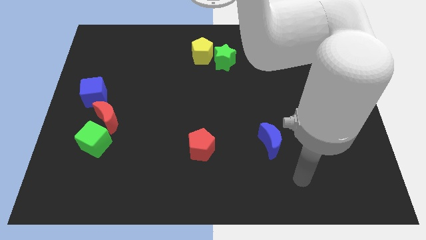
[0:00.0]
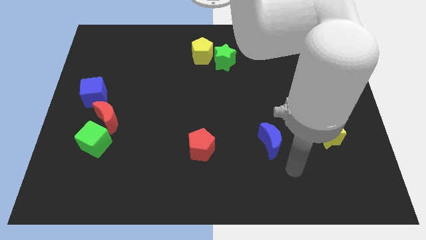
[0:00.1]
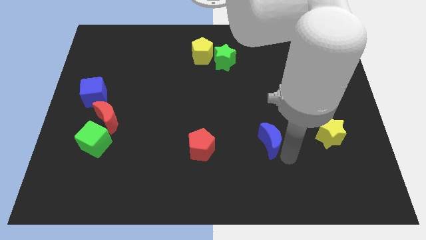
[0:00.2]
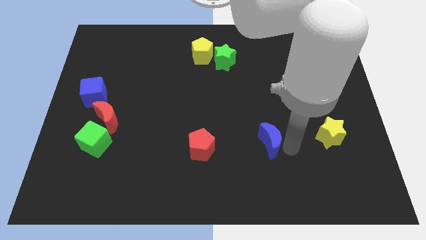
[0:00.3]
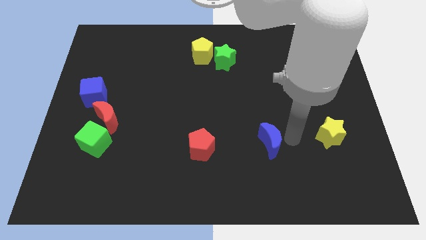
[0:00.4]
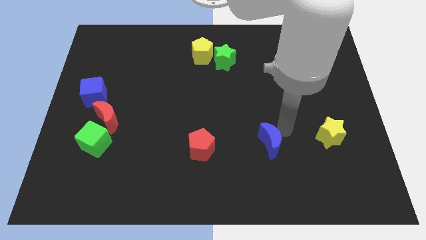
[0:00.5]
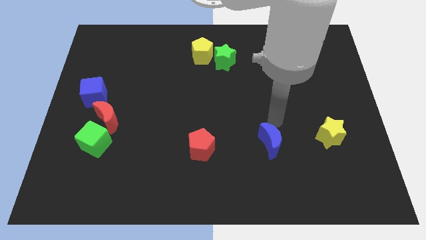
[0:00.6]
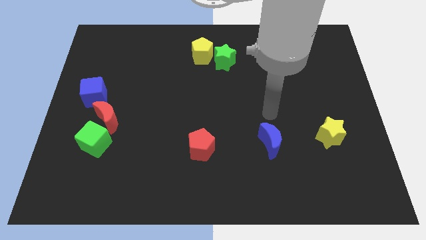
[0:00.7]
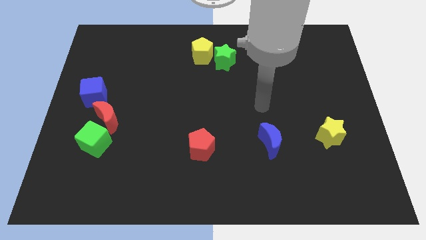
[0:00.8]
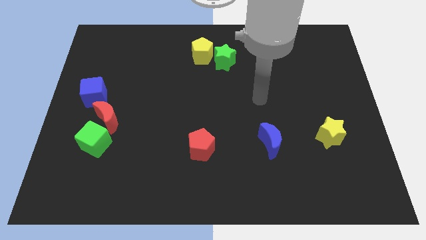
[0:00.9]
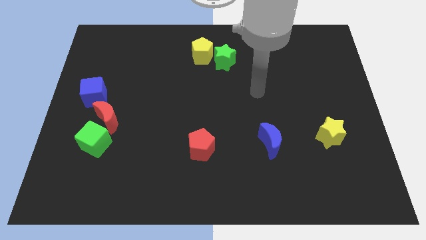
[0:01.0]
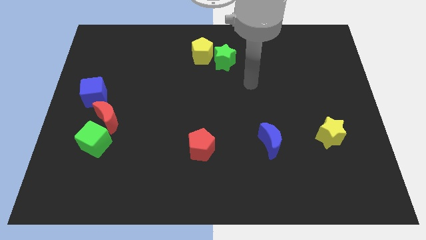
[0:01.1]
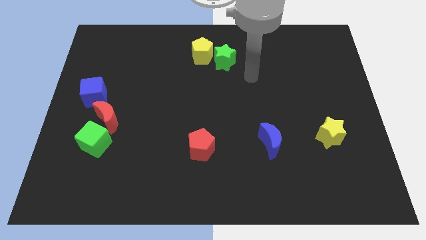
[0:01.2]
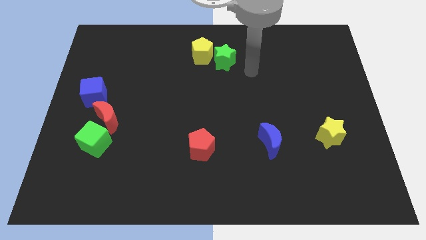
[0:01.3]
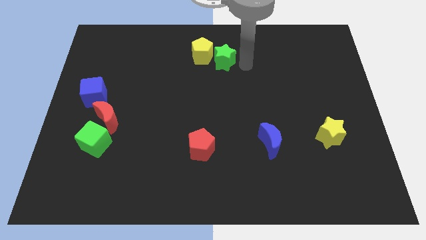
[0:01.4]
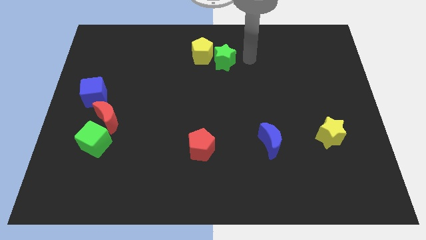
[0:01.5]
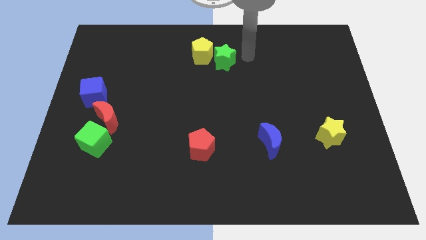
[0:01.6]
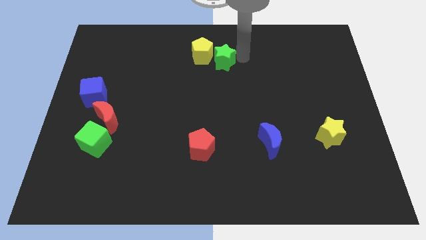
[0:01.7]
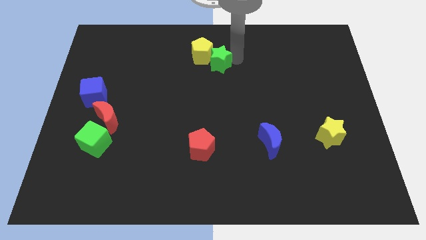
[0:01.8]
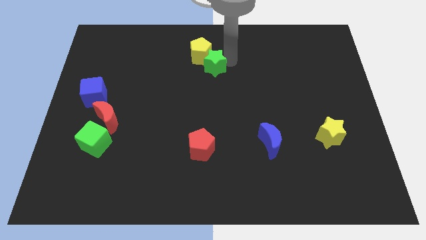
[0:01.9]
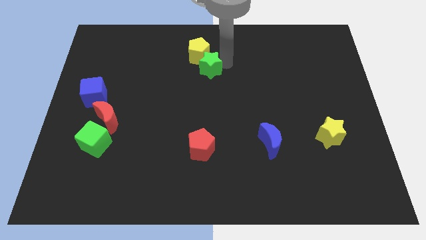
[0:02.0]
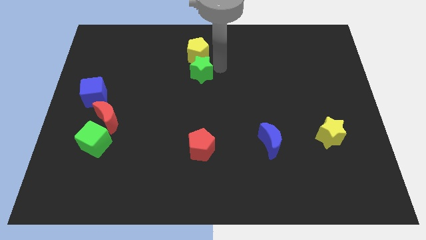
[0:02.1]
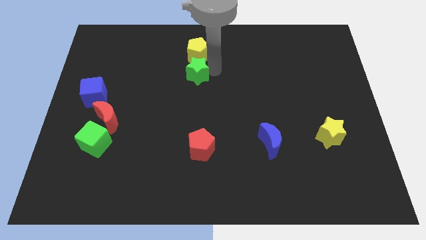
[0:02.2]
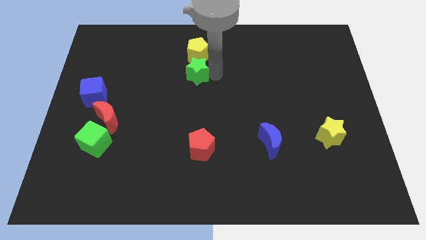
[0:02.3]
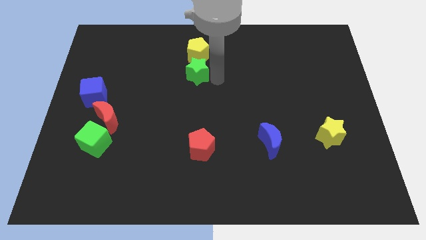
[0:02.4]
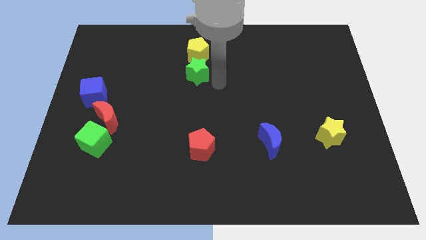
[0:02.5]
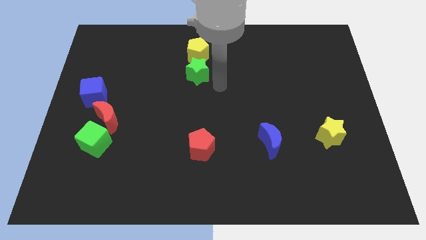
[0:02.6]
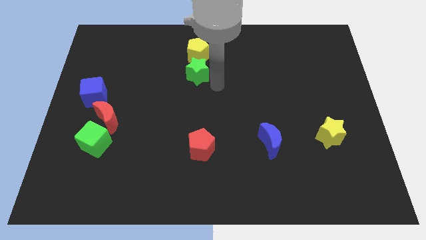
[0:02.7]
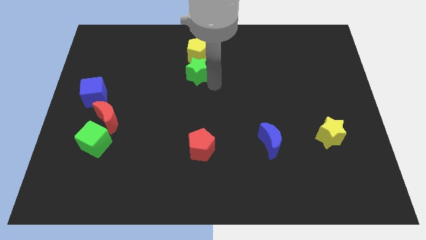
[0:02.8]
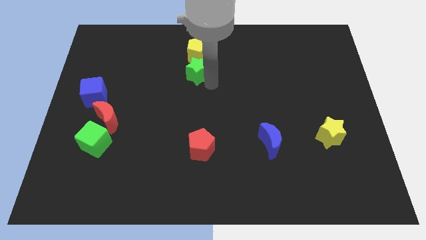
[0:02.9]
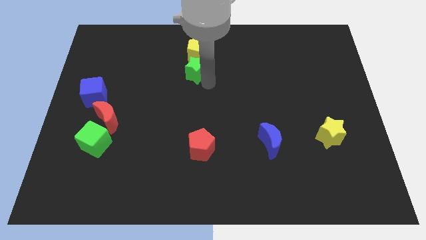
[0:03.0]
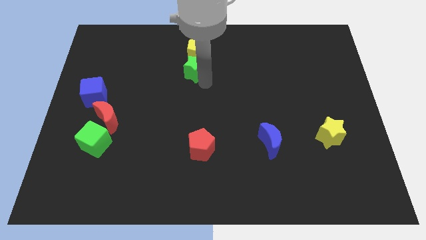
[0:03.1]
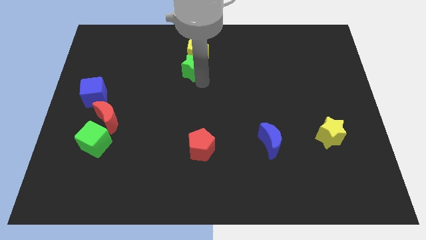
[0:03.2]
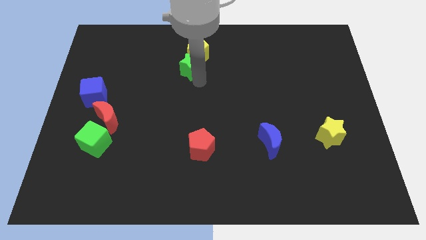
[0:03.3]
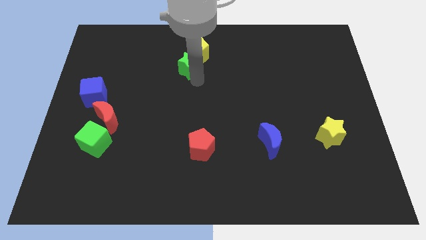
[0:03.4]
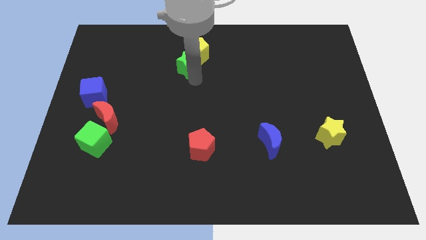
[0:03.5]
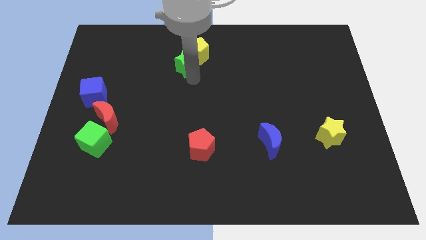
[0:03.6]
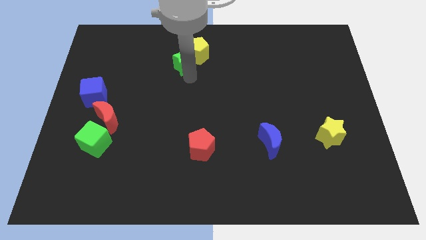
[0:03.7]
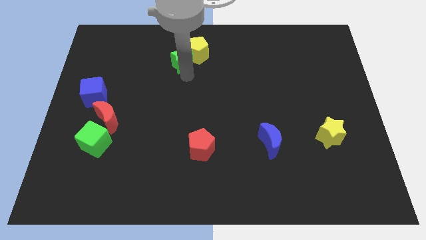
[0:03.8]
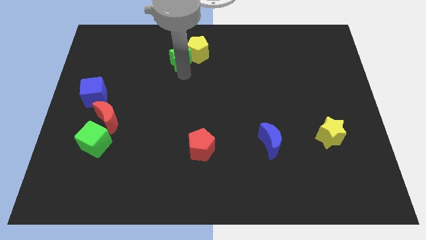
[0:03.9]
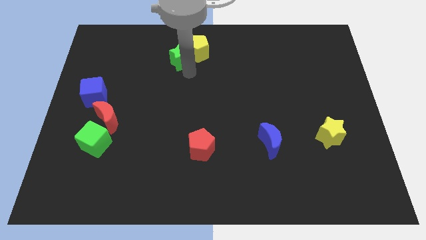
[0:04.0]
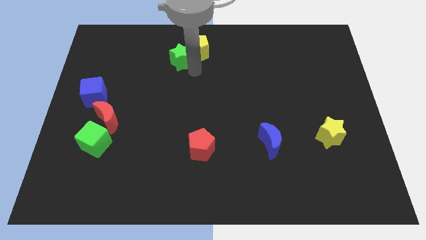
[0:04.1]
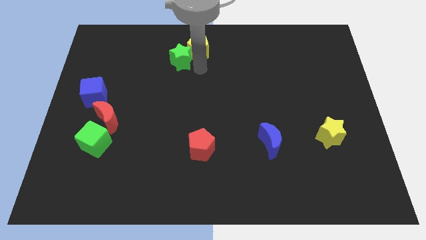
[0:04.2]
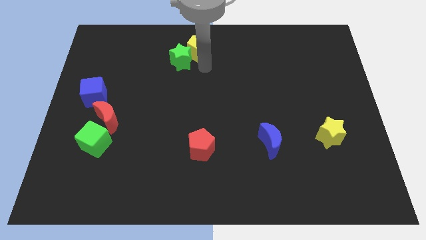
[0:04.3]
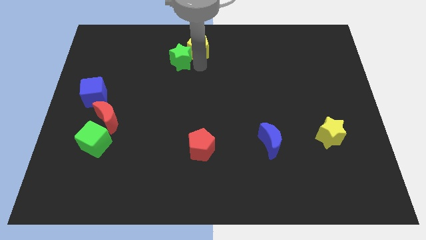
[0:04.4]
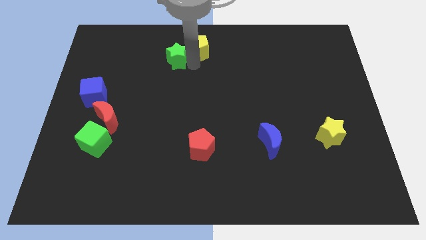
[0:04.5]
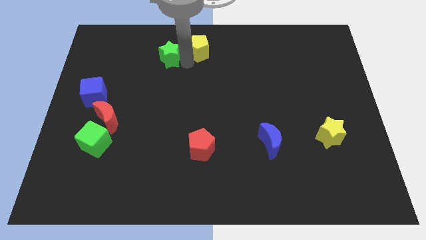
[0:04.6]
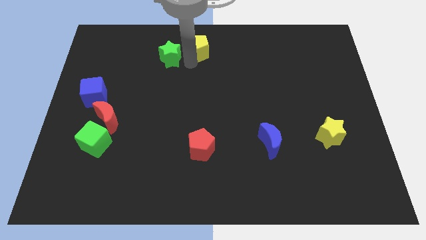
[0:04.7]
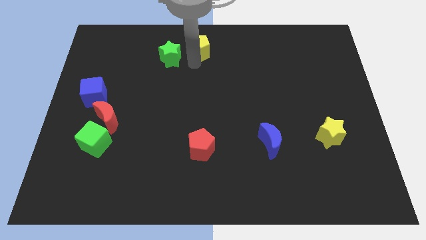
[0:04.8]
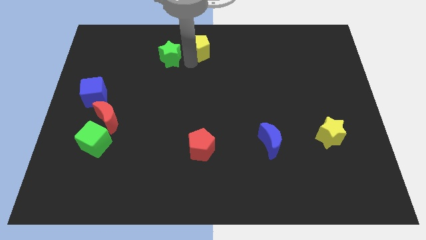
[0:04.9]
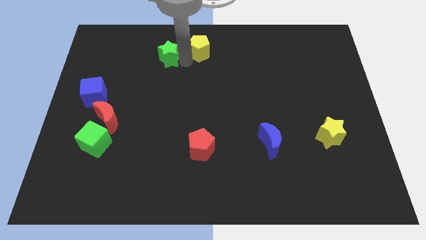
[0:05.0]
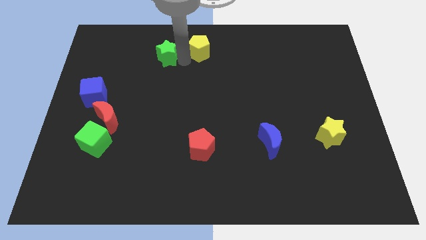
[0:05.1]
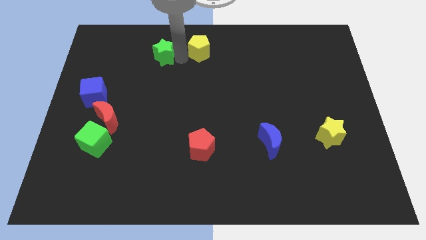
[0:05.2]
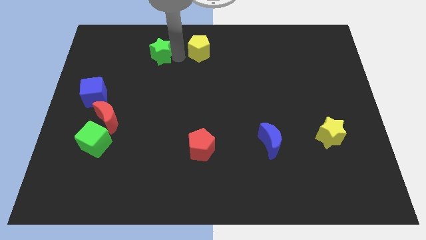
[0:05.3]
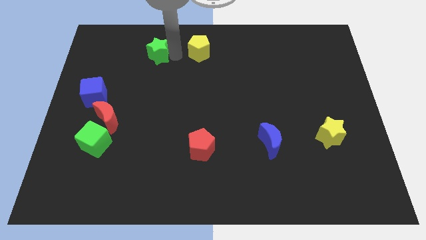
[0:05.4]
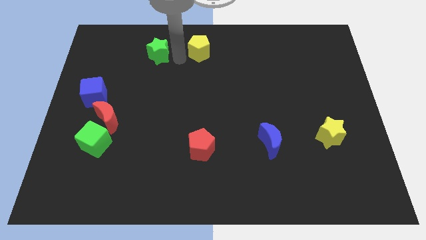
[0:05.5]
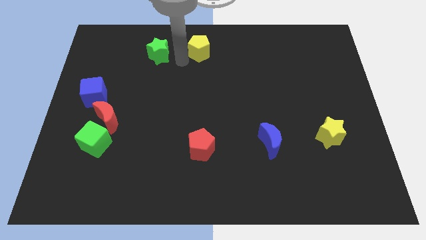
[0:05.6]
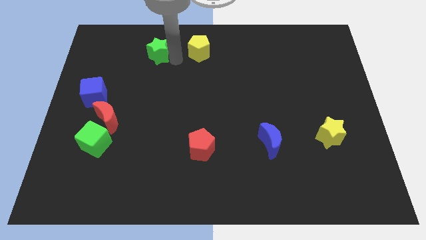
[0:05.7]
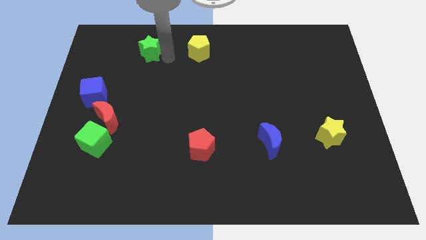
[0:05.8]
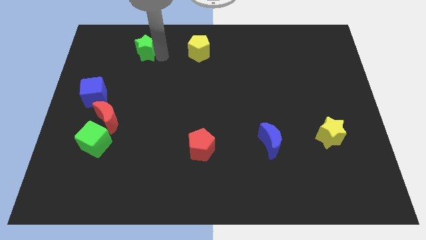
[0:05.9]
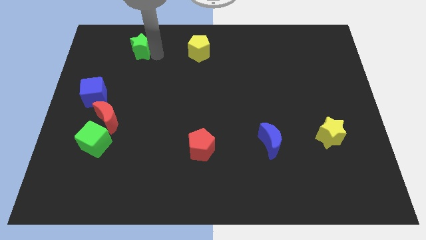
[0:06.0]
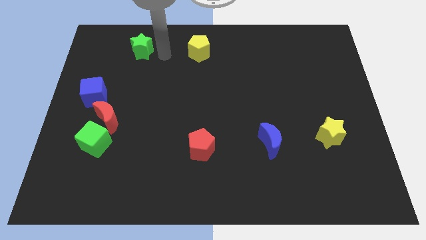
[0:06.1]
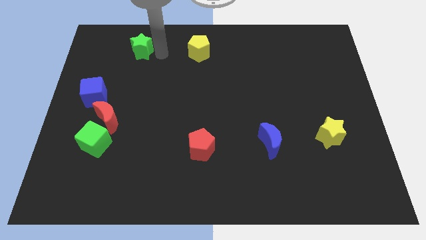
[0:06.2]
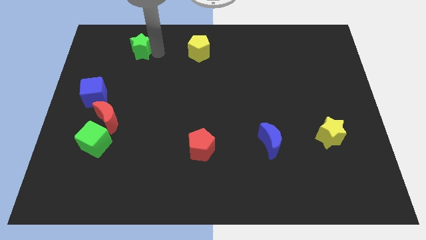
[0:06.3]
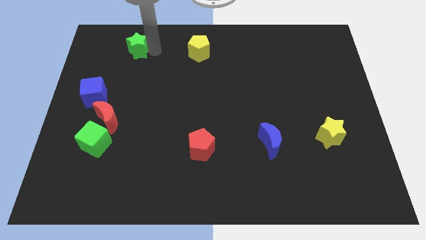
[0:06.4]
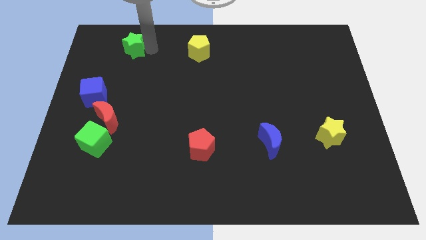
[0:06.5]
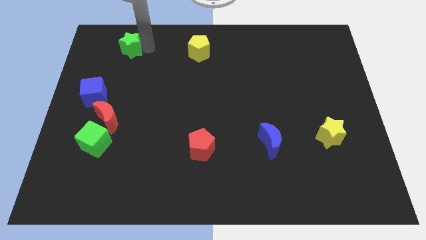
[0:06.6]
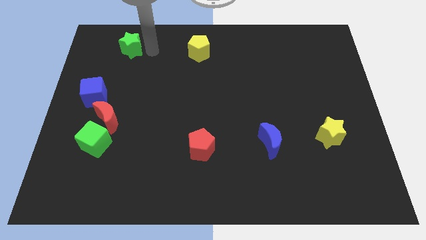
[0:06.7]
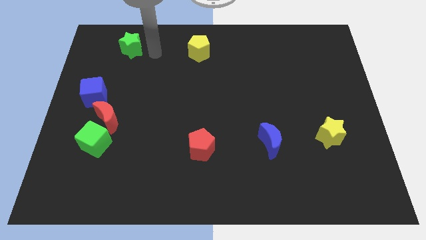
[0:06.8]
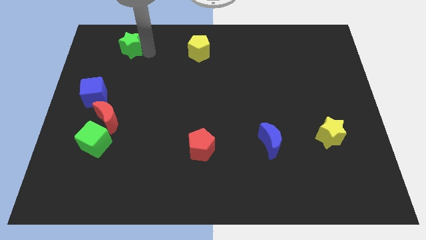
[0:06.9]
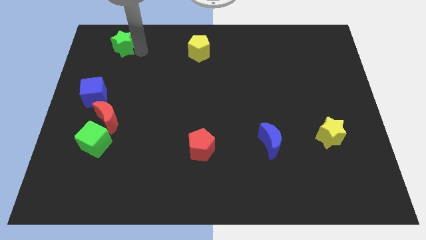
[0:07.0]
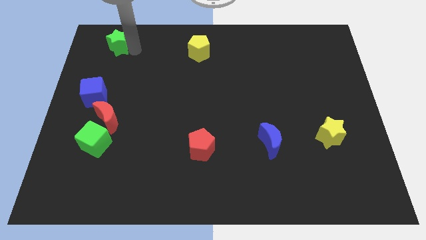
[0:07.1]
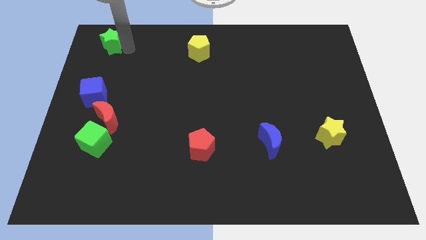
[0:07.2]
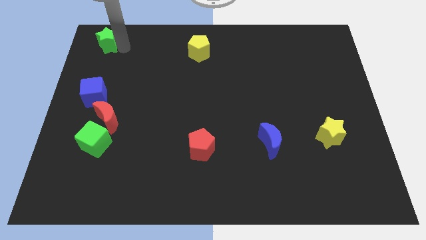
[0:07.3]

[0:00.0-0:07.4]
slide the green star to the top left corner
